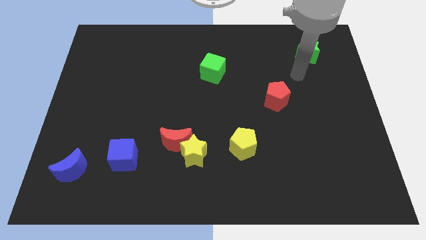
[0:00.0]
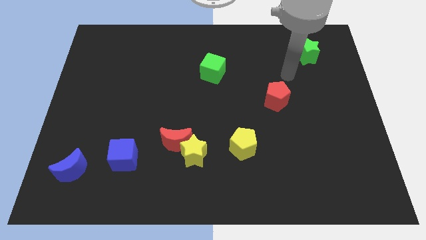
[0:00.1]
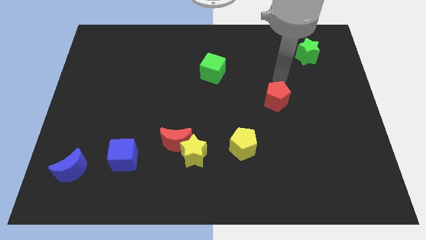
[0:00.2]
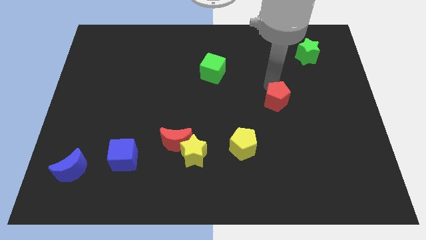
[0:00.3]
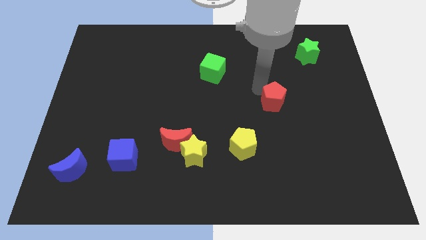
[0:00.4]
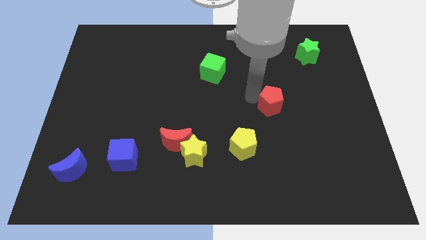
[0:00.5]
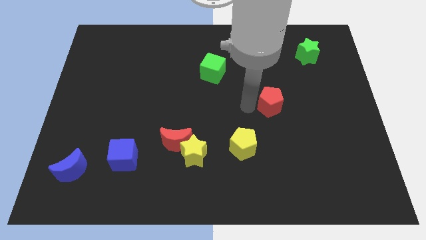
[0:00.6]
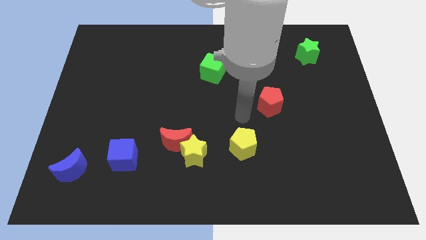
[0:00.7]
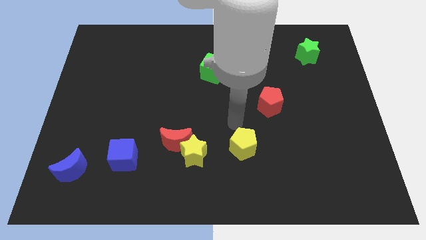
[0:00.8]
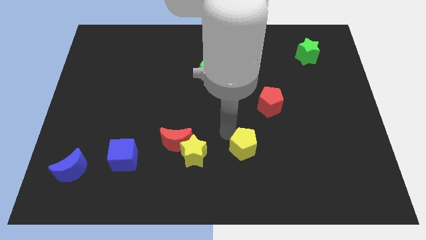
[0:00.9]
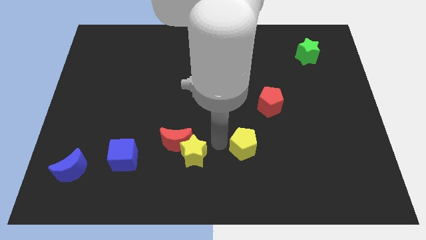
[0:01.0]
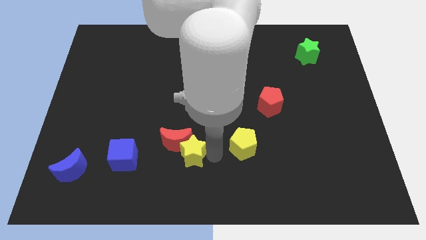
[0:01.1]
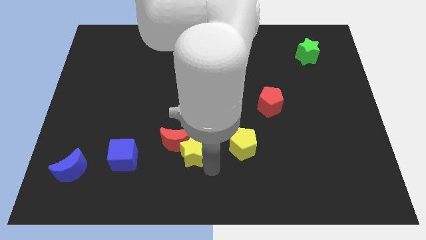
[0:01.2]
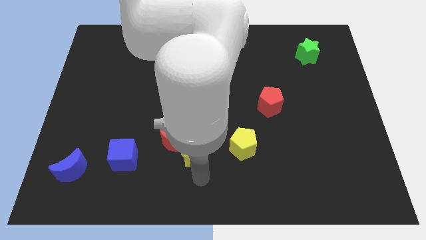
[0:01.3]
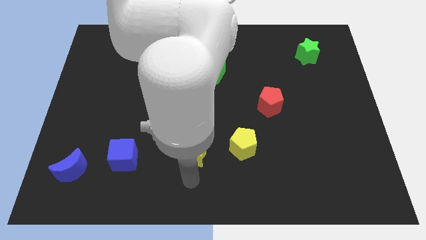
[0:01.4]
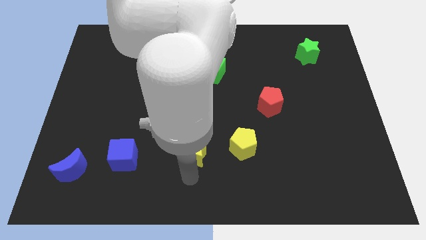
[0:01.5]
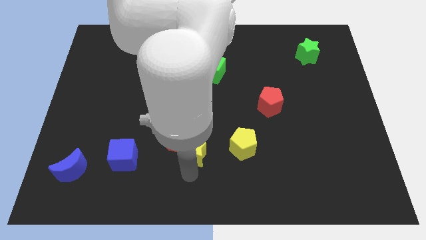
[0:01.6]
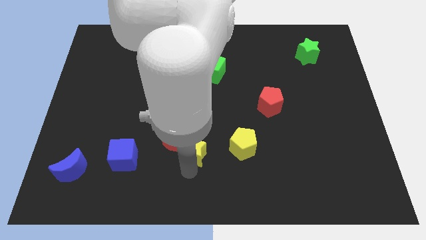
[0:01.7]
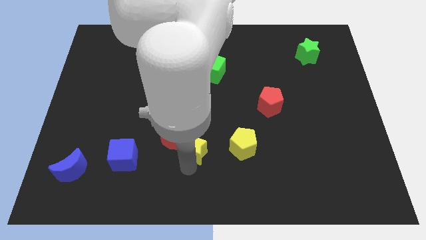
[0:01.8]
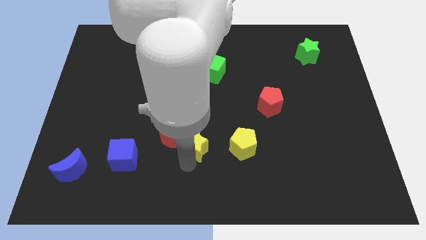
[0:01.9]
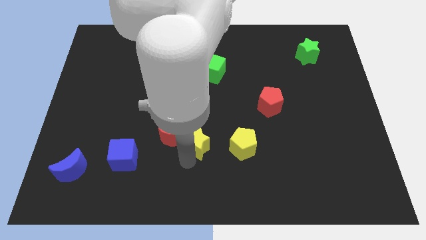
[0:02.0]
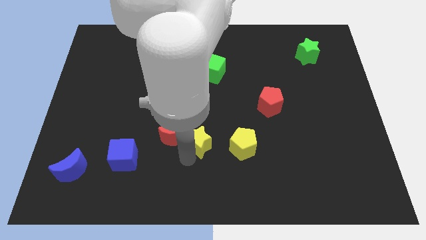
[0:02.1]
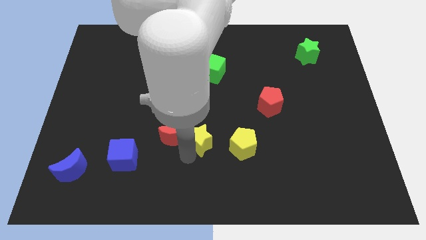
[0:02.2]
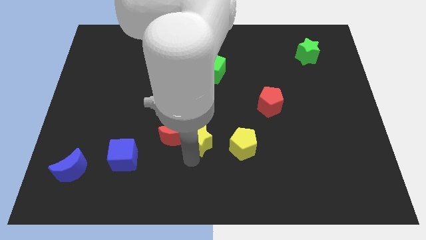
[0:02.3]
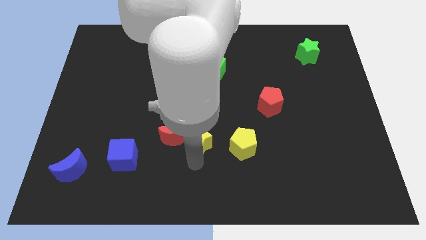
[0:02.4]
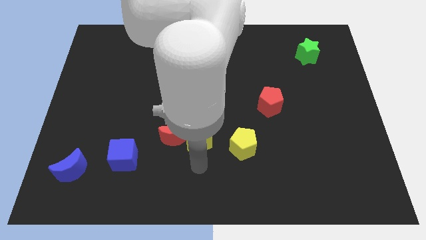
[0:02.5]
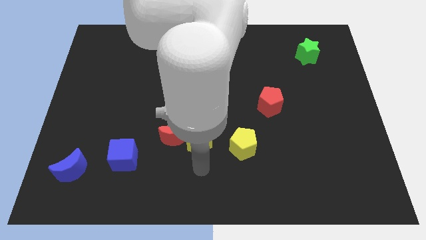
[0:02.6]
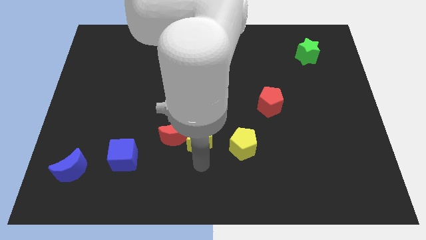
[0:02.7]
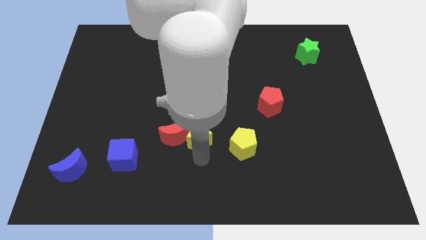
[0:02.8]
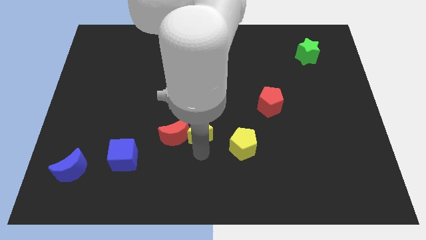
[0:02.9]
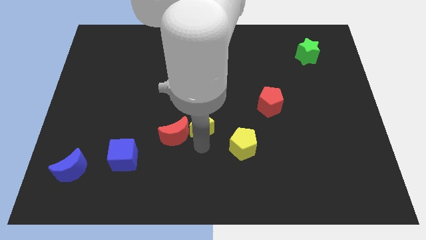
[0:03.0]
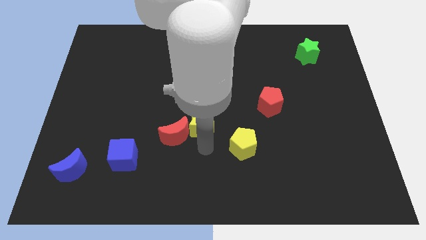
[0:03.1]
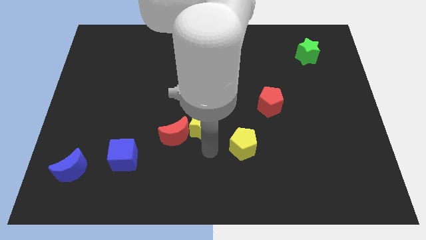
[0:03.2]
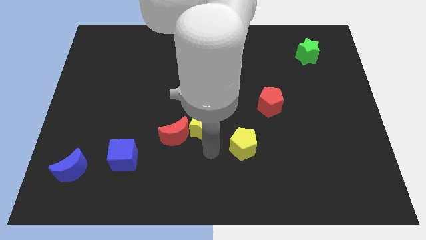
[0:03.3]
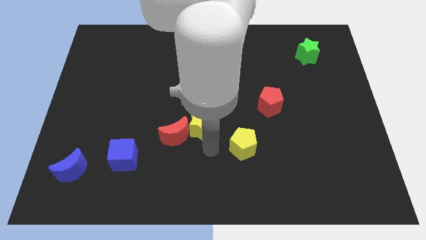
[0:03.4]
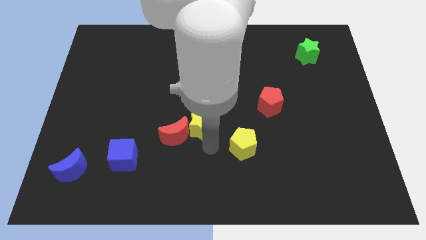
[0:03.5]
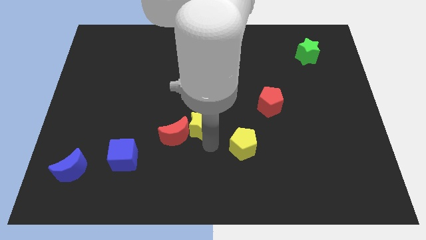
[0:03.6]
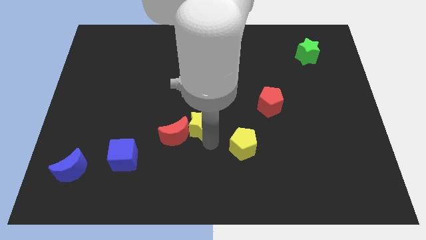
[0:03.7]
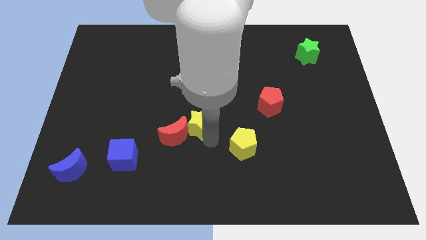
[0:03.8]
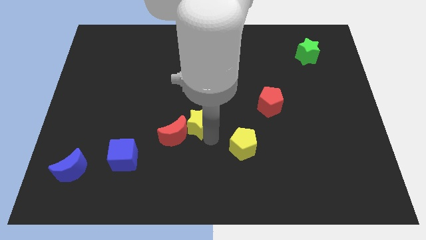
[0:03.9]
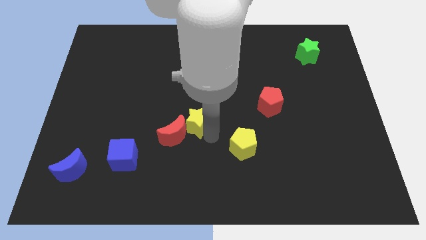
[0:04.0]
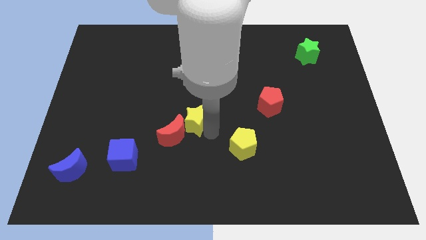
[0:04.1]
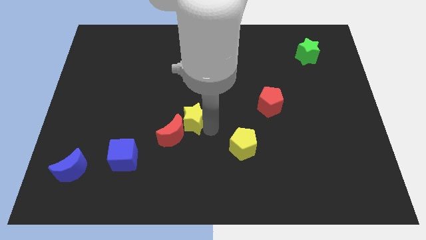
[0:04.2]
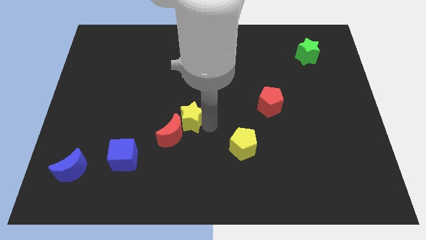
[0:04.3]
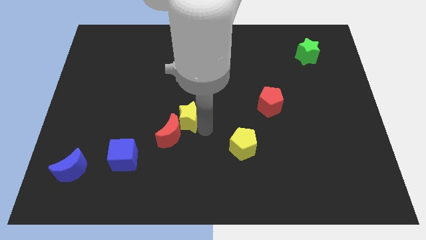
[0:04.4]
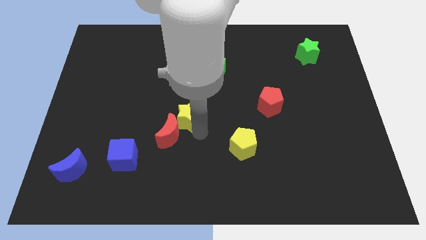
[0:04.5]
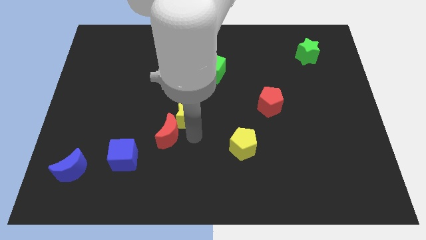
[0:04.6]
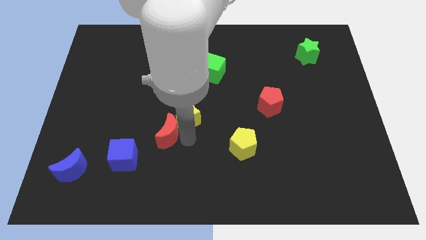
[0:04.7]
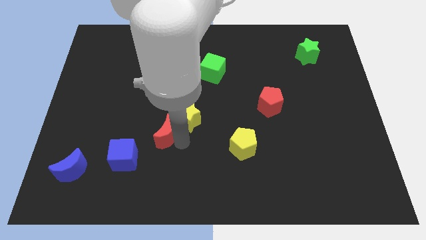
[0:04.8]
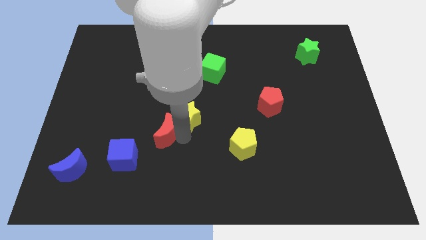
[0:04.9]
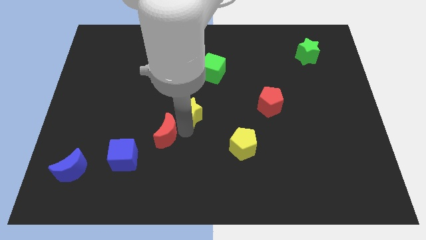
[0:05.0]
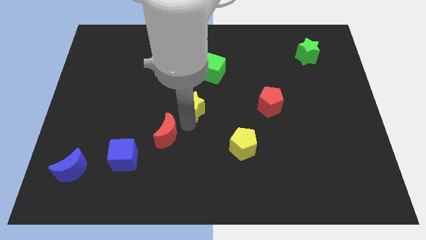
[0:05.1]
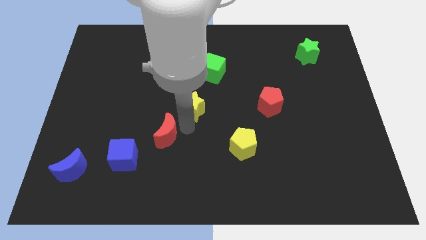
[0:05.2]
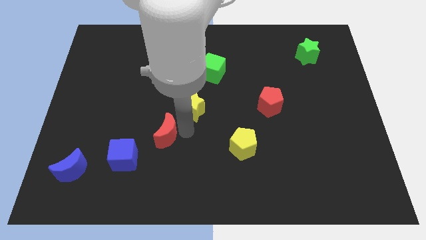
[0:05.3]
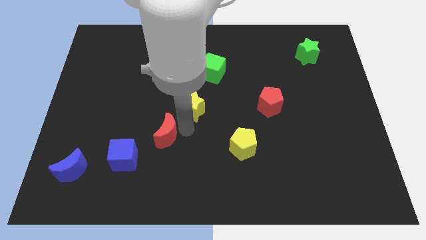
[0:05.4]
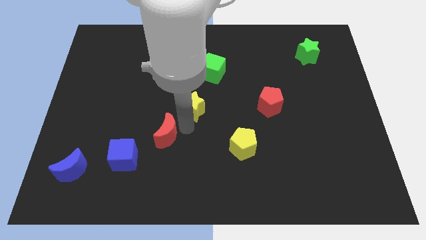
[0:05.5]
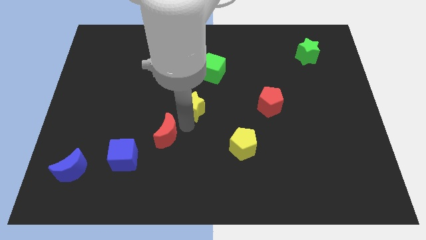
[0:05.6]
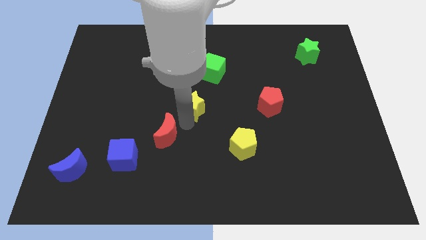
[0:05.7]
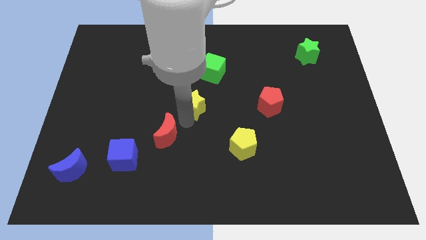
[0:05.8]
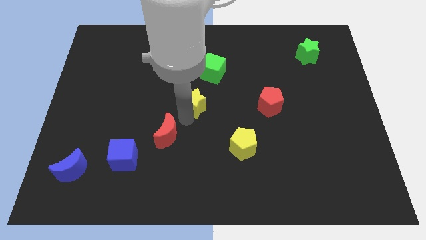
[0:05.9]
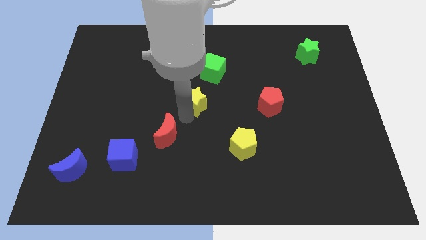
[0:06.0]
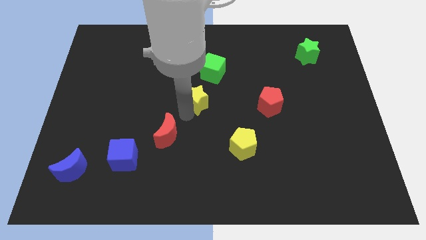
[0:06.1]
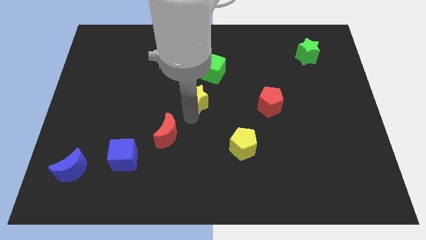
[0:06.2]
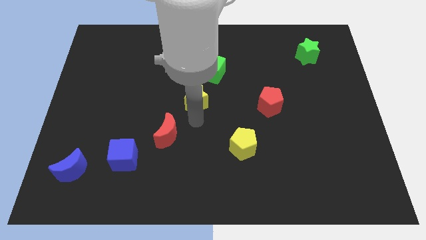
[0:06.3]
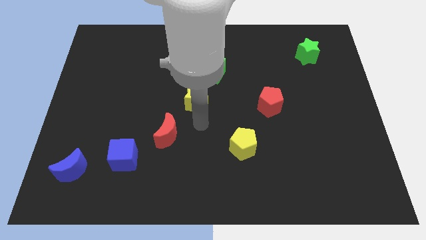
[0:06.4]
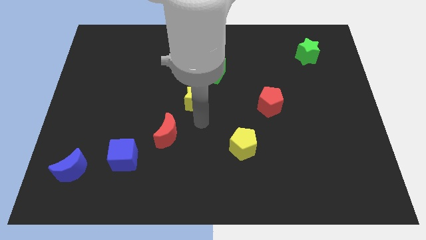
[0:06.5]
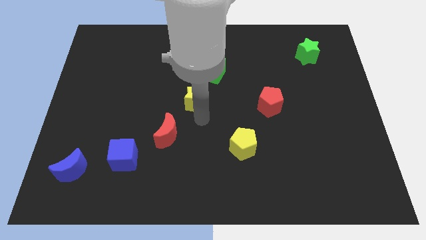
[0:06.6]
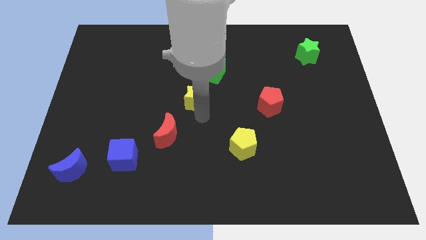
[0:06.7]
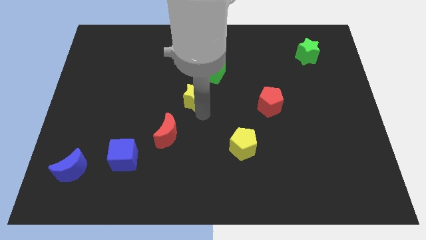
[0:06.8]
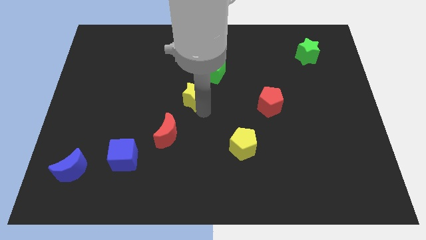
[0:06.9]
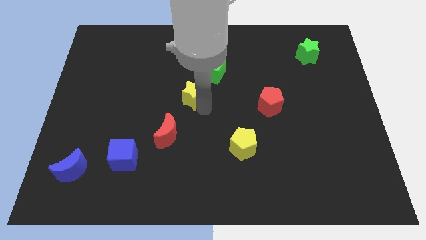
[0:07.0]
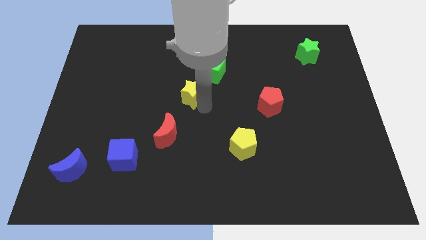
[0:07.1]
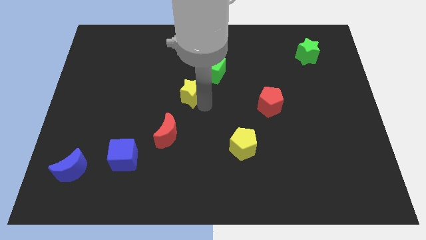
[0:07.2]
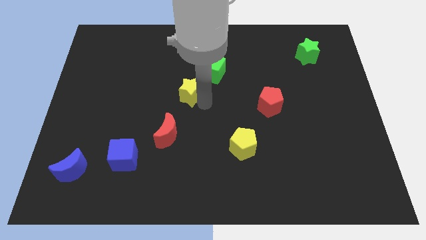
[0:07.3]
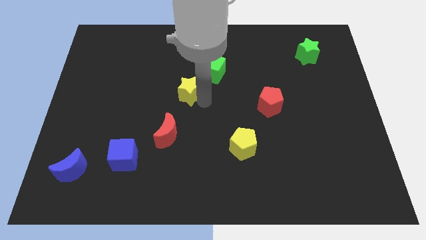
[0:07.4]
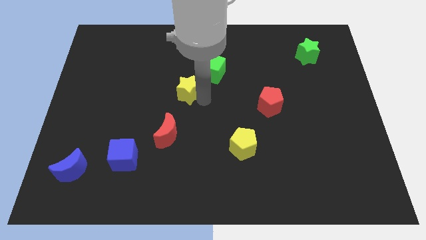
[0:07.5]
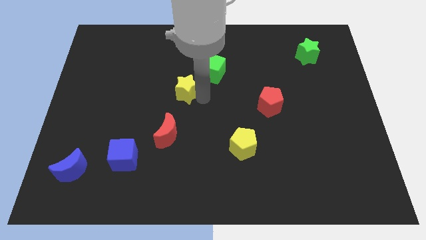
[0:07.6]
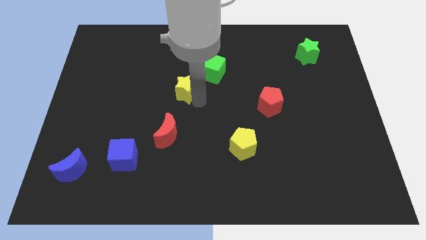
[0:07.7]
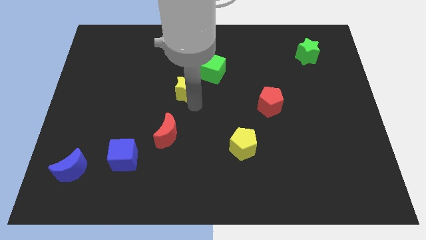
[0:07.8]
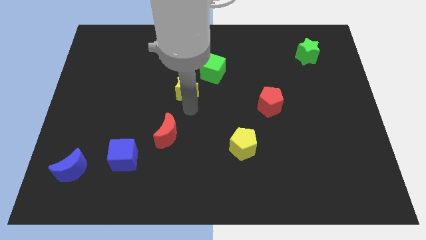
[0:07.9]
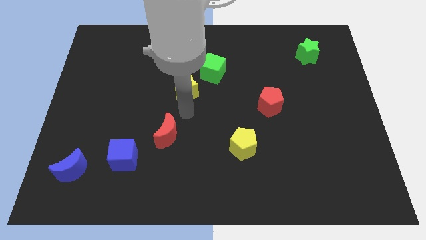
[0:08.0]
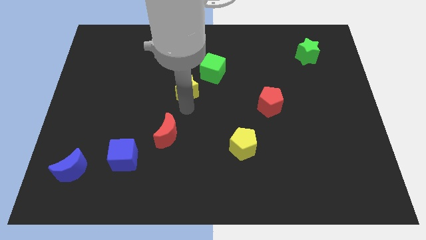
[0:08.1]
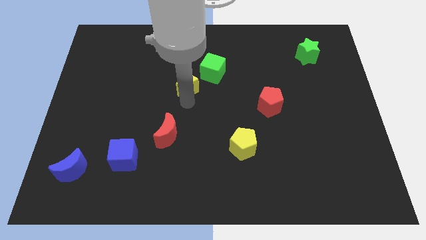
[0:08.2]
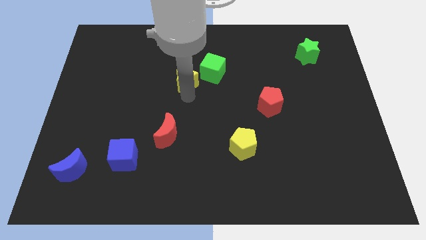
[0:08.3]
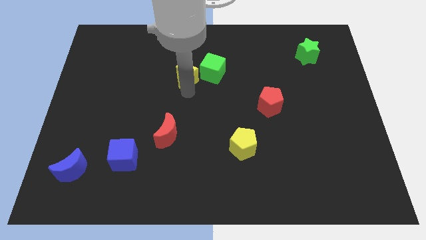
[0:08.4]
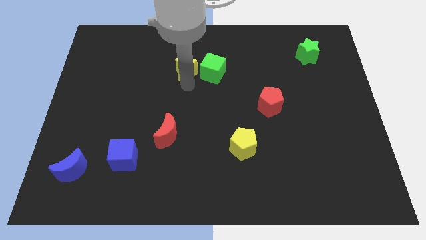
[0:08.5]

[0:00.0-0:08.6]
move the yellow star diagonally up and to the left of the green cube

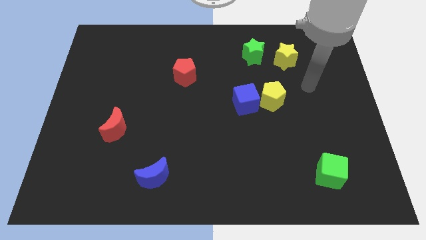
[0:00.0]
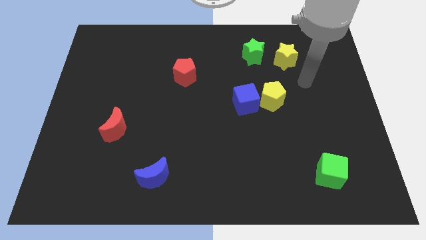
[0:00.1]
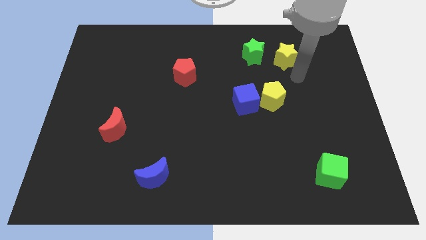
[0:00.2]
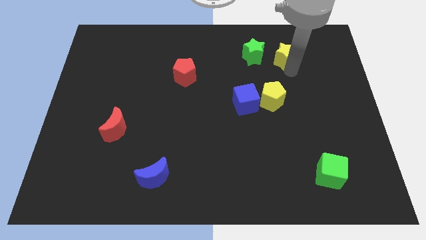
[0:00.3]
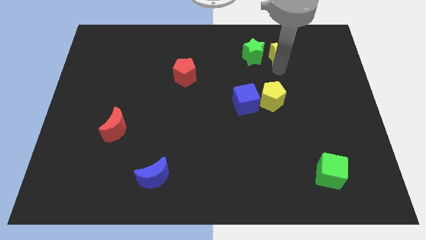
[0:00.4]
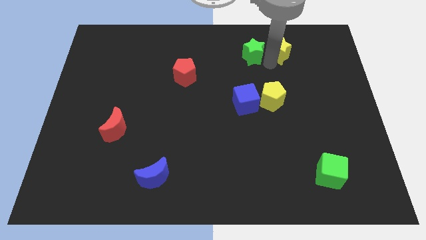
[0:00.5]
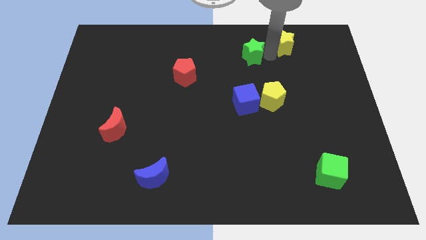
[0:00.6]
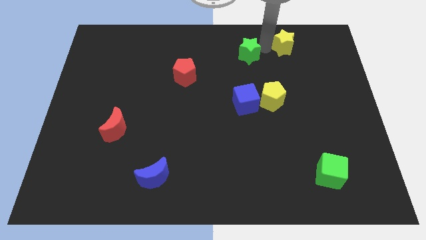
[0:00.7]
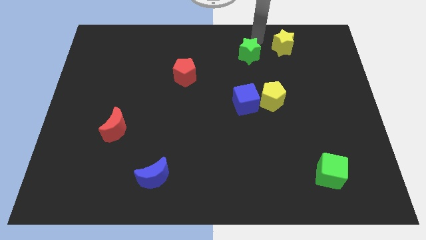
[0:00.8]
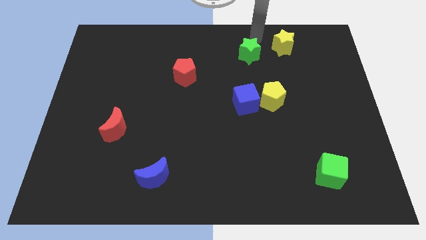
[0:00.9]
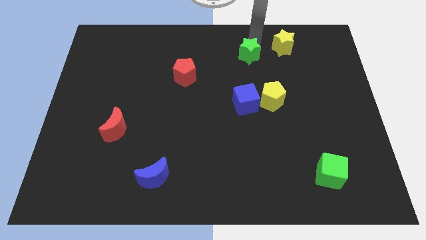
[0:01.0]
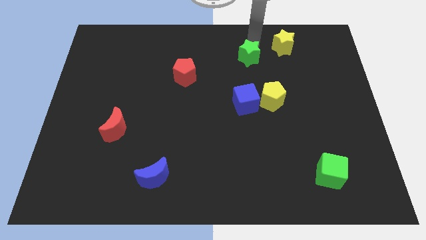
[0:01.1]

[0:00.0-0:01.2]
put the green star to the top side of the blue cube
